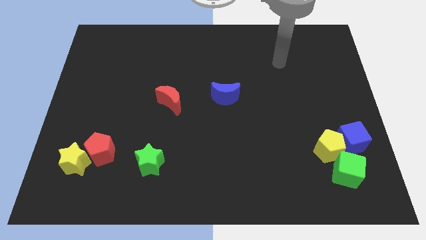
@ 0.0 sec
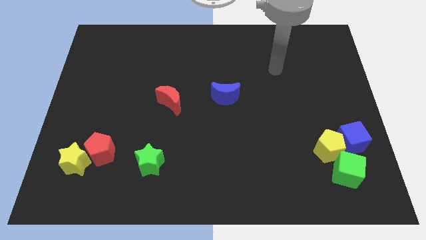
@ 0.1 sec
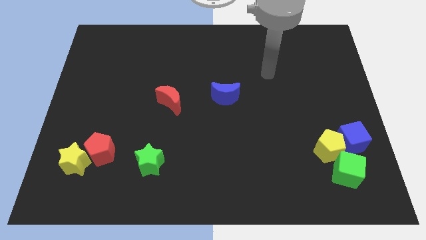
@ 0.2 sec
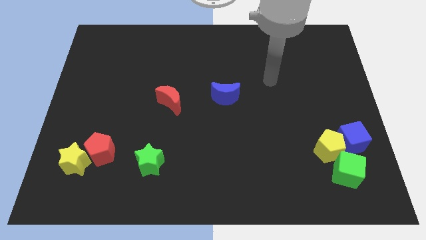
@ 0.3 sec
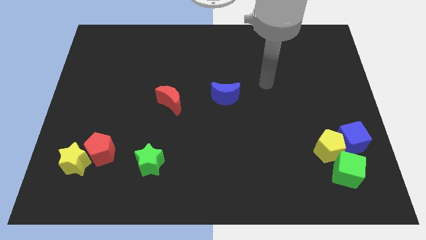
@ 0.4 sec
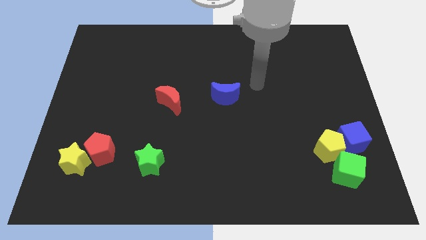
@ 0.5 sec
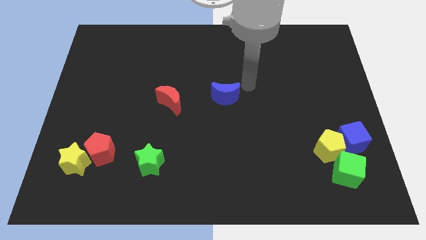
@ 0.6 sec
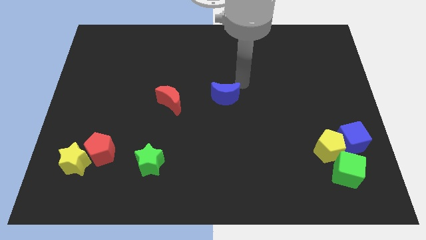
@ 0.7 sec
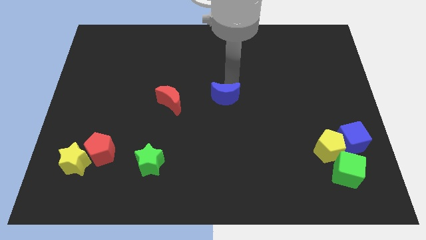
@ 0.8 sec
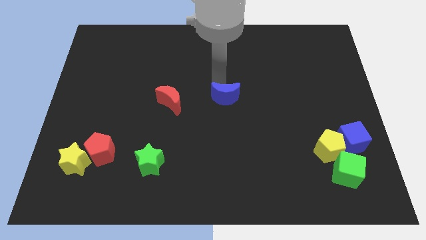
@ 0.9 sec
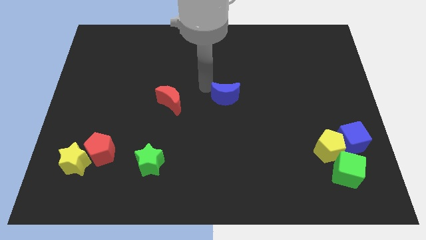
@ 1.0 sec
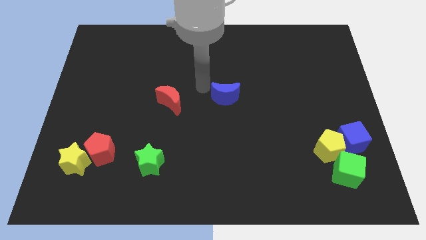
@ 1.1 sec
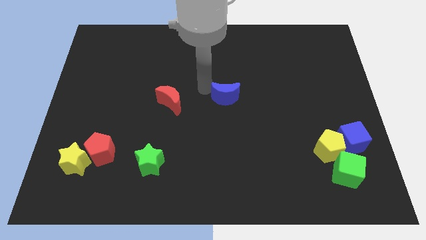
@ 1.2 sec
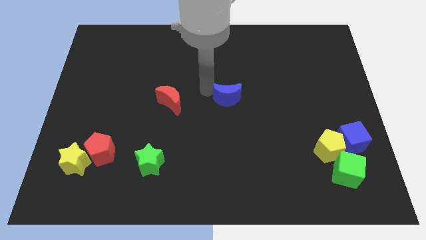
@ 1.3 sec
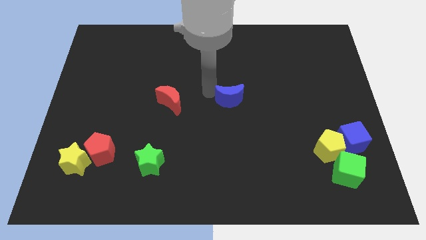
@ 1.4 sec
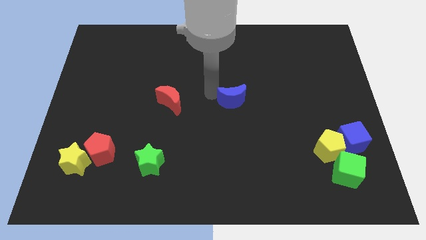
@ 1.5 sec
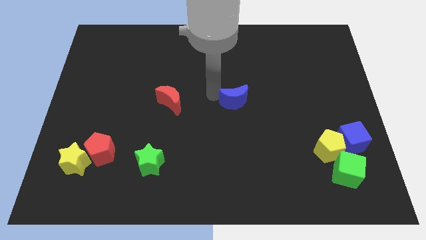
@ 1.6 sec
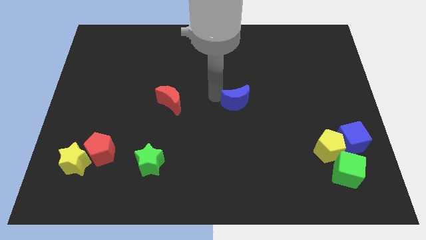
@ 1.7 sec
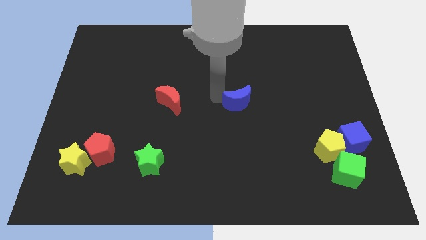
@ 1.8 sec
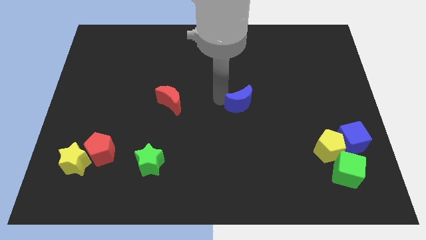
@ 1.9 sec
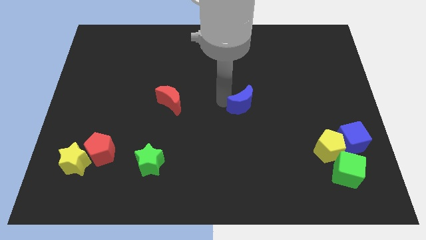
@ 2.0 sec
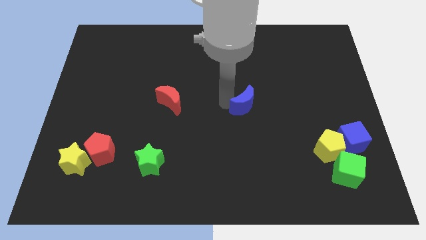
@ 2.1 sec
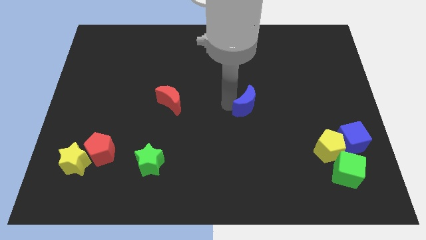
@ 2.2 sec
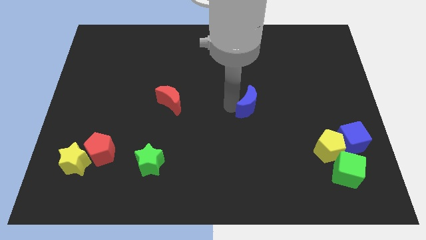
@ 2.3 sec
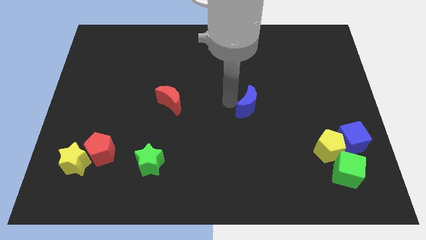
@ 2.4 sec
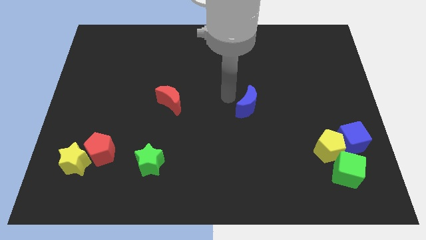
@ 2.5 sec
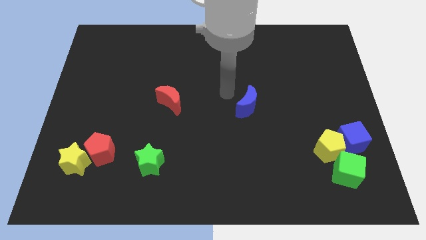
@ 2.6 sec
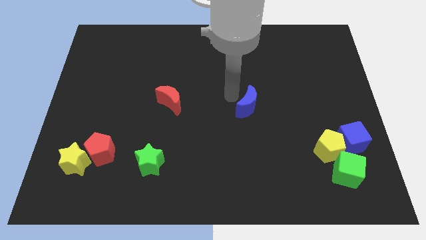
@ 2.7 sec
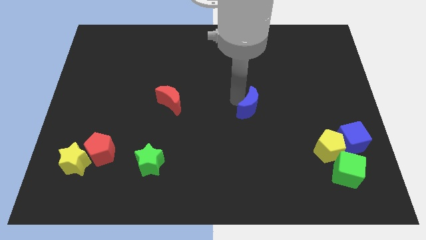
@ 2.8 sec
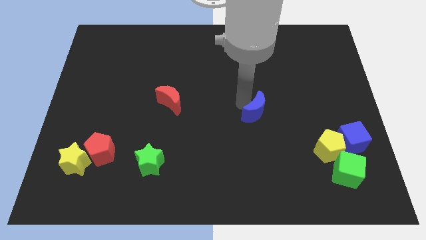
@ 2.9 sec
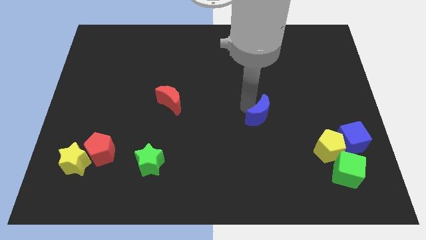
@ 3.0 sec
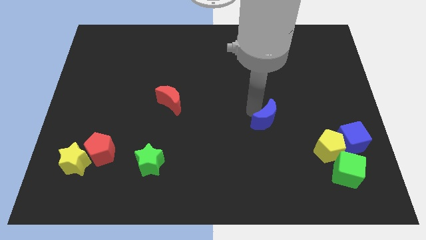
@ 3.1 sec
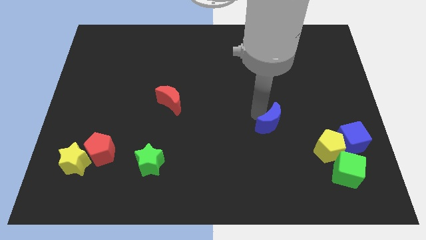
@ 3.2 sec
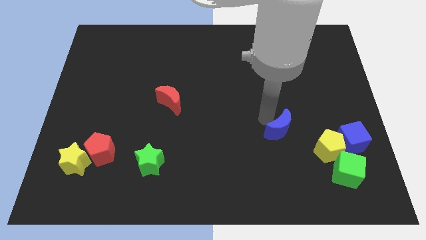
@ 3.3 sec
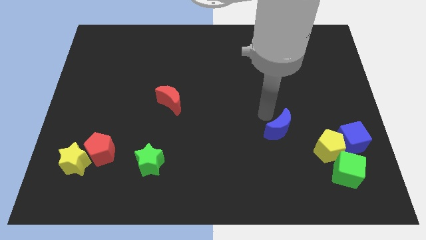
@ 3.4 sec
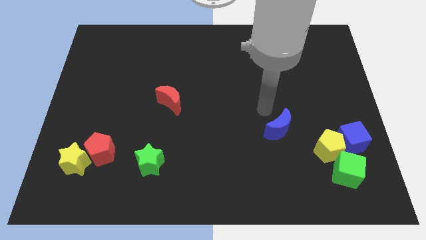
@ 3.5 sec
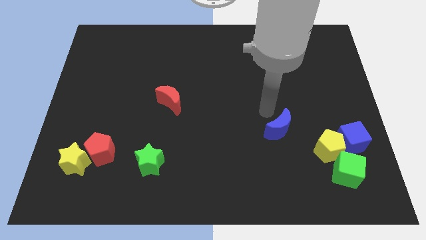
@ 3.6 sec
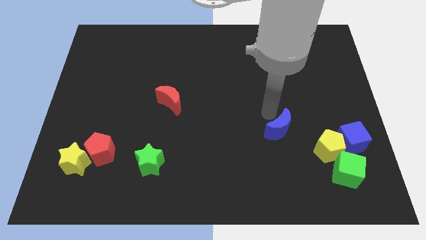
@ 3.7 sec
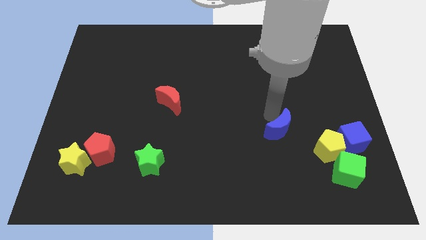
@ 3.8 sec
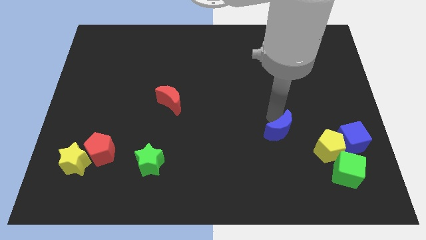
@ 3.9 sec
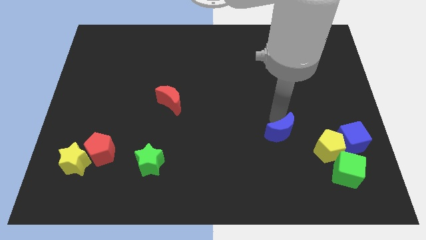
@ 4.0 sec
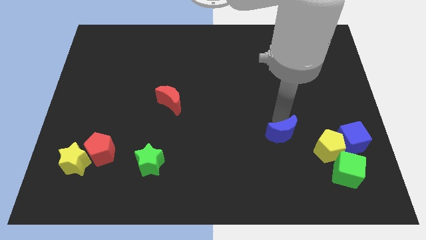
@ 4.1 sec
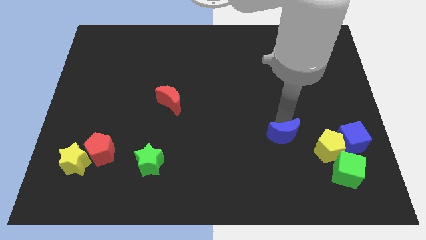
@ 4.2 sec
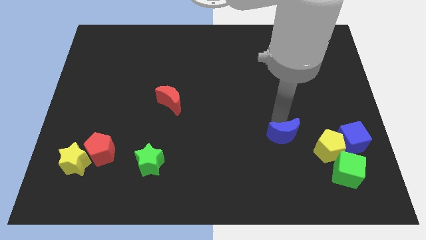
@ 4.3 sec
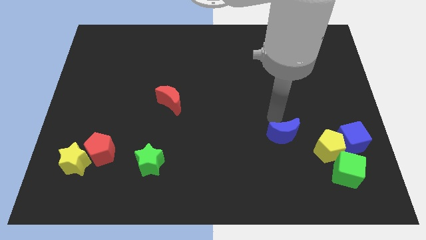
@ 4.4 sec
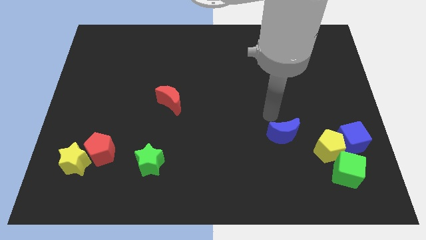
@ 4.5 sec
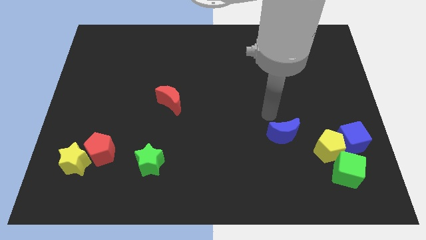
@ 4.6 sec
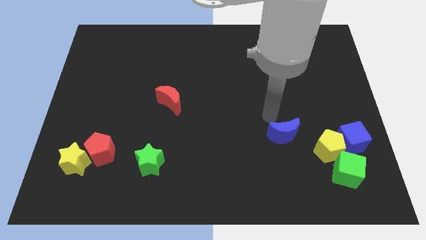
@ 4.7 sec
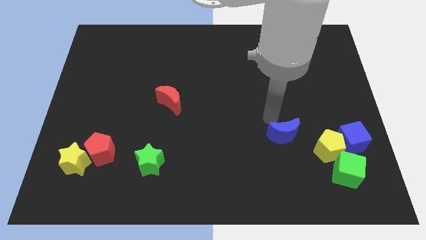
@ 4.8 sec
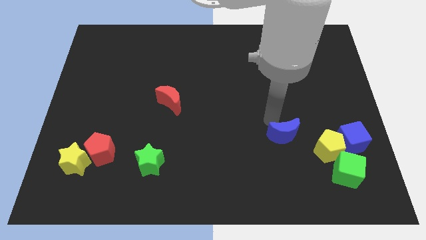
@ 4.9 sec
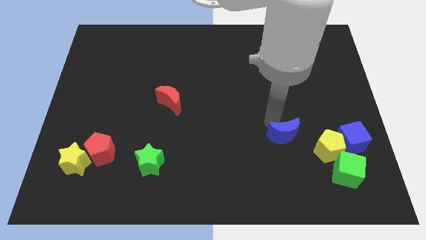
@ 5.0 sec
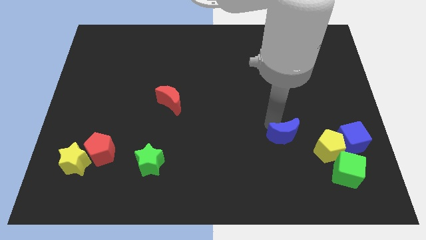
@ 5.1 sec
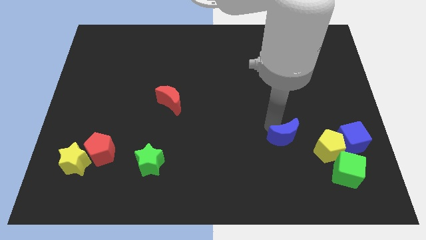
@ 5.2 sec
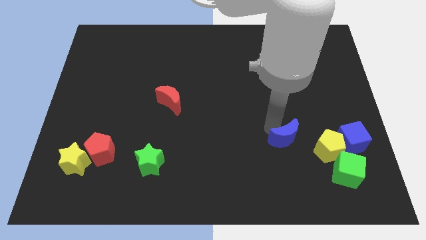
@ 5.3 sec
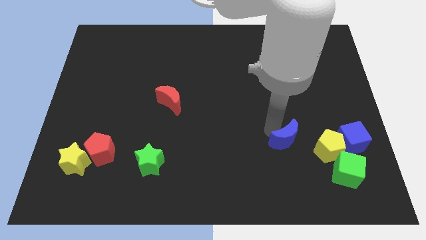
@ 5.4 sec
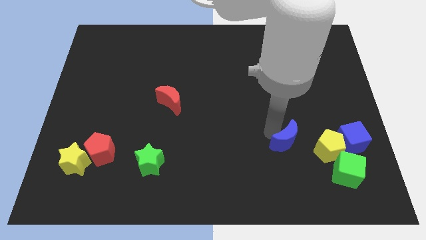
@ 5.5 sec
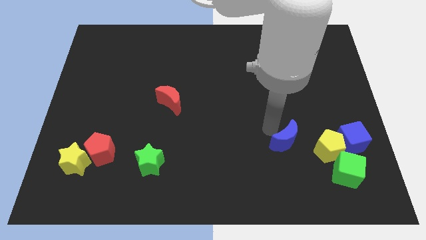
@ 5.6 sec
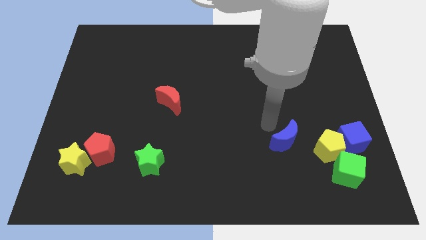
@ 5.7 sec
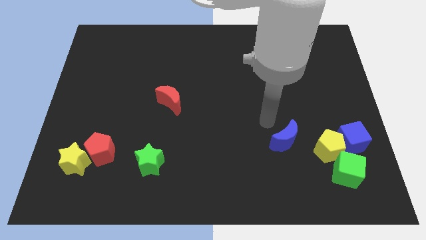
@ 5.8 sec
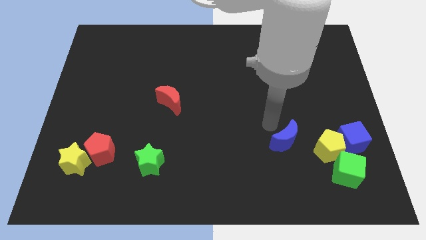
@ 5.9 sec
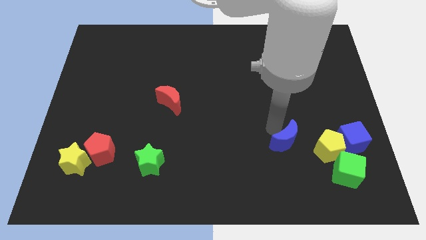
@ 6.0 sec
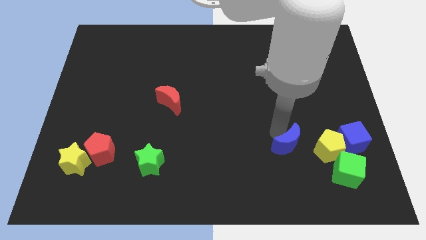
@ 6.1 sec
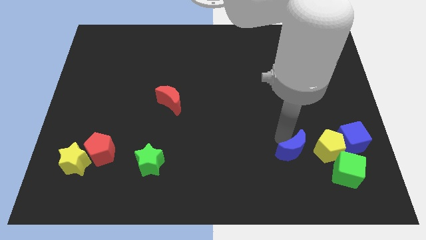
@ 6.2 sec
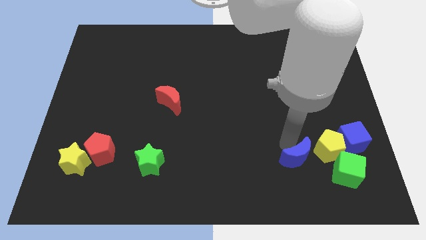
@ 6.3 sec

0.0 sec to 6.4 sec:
put the blue moon to the bottom left side of the yellow pentagon
